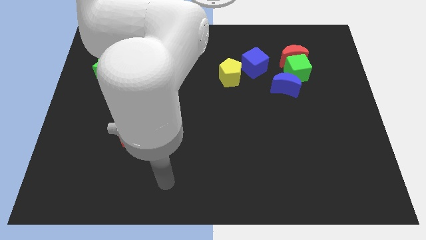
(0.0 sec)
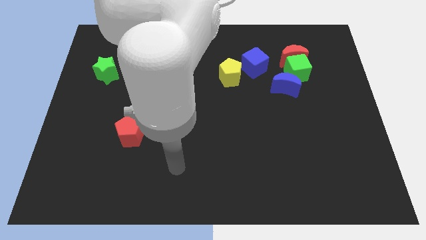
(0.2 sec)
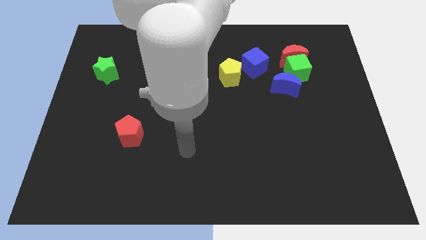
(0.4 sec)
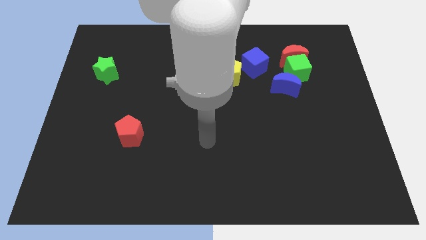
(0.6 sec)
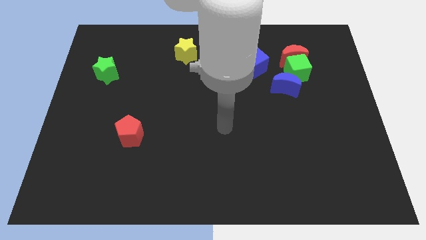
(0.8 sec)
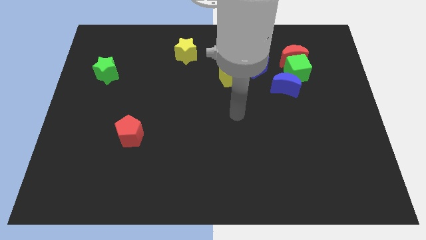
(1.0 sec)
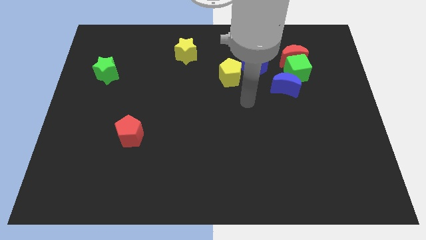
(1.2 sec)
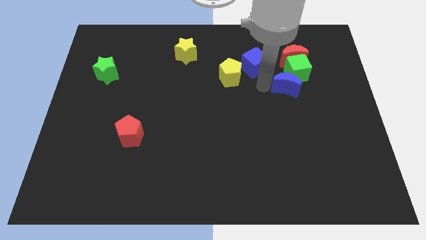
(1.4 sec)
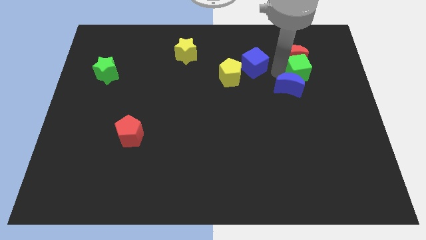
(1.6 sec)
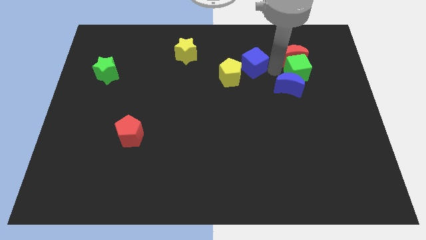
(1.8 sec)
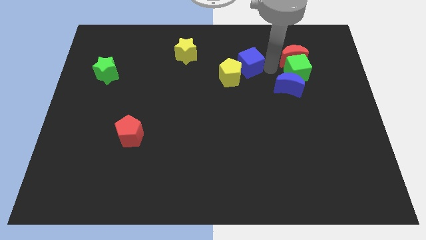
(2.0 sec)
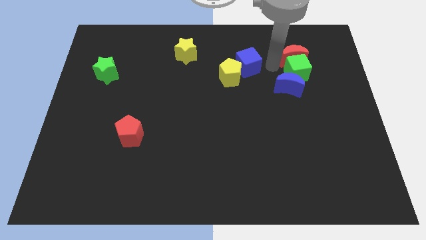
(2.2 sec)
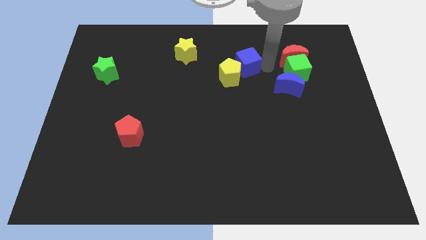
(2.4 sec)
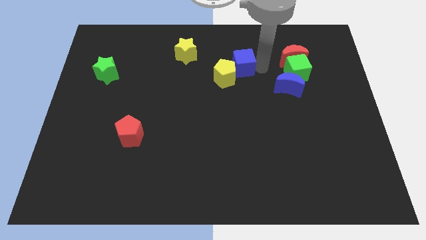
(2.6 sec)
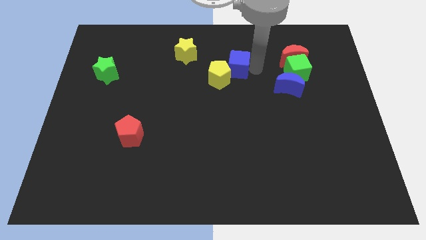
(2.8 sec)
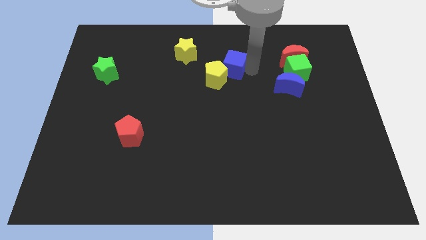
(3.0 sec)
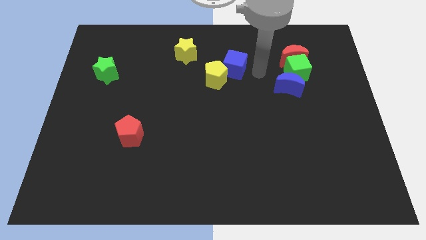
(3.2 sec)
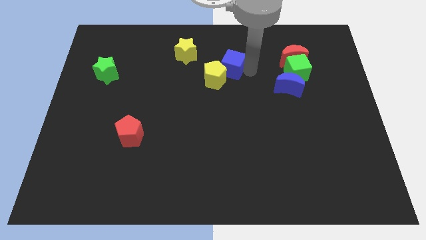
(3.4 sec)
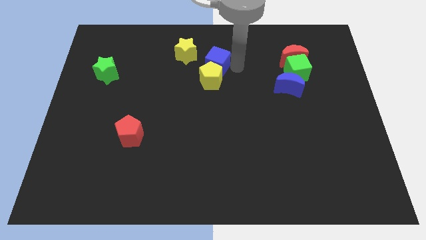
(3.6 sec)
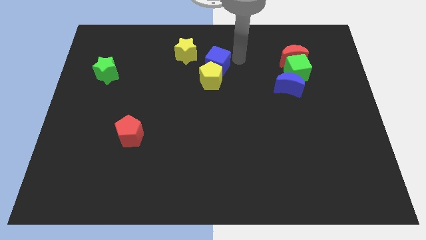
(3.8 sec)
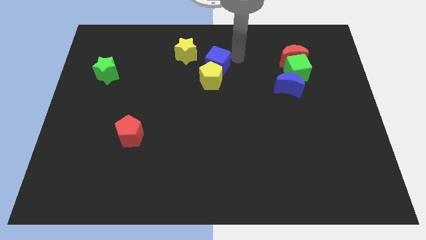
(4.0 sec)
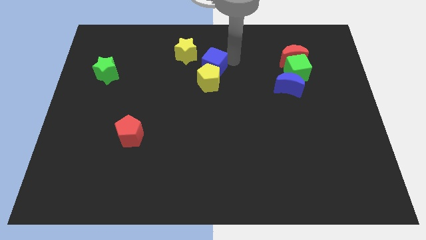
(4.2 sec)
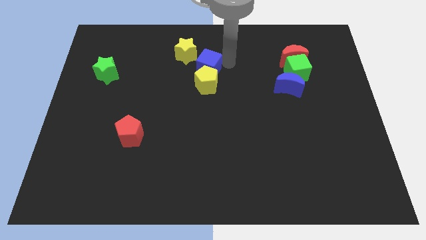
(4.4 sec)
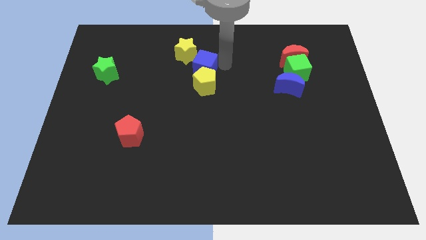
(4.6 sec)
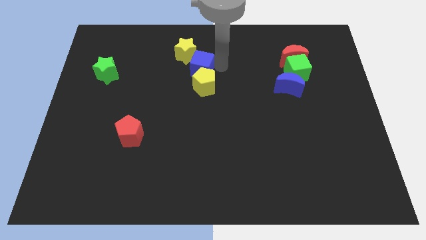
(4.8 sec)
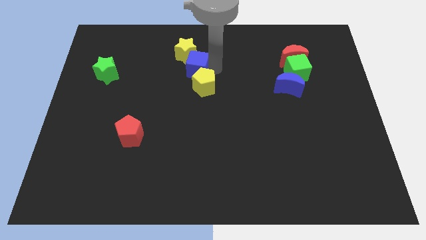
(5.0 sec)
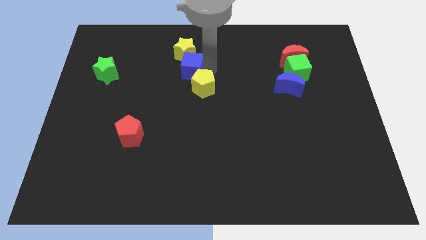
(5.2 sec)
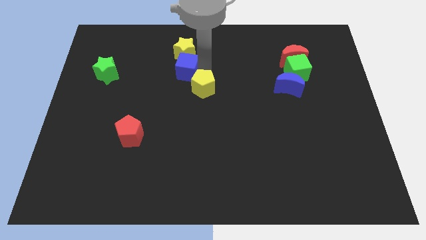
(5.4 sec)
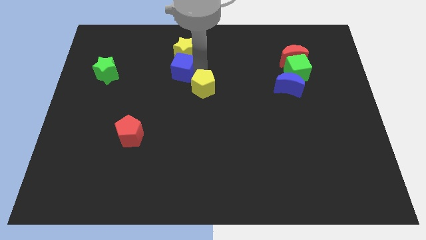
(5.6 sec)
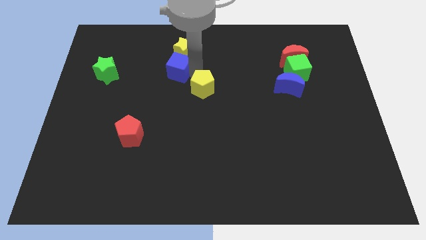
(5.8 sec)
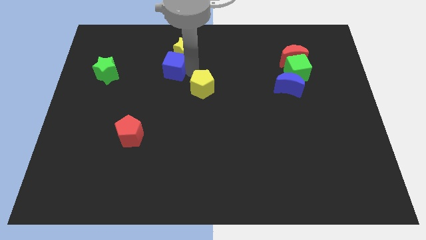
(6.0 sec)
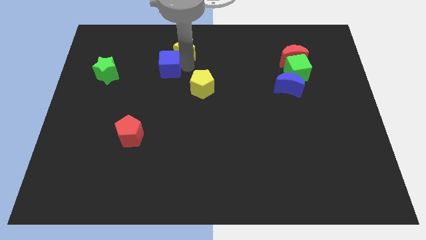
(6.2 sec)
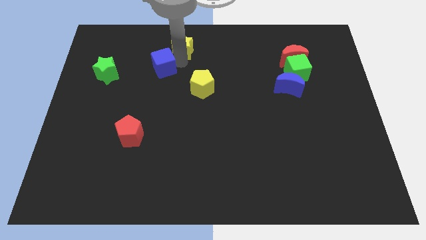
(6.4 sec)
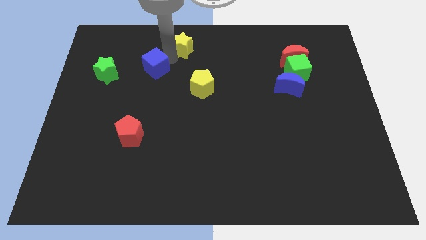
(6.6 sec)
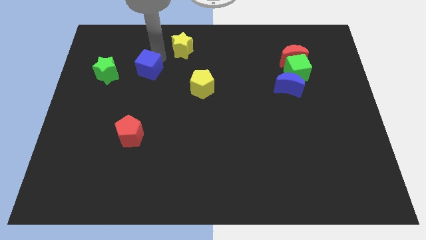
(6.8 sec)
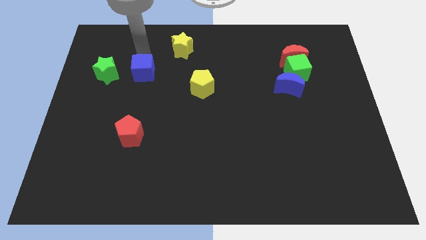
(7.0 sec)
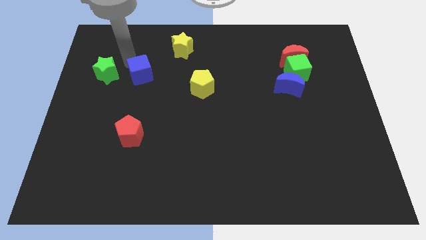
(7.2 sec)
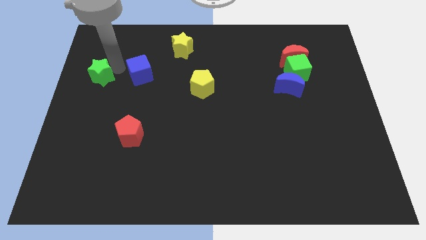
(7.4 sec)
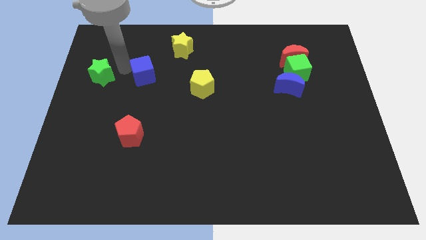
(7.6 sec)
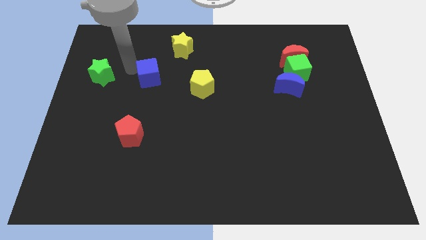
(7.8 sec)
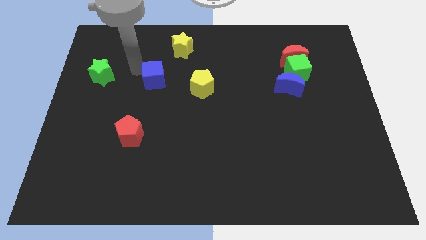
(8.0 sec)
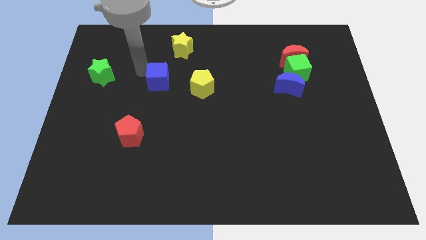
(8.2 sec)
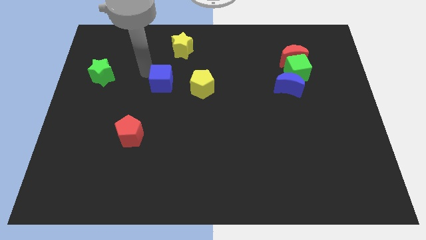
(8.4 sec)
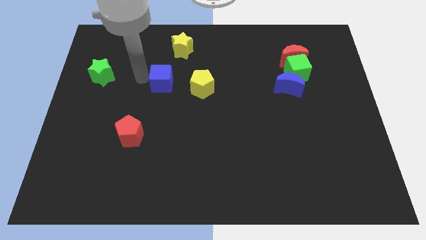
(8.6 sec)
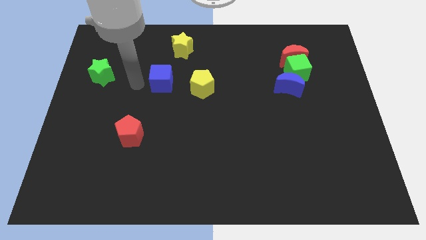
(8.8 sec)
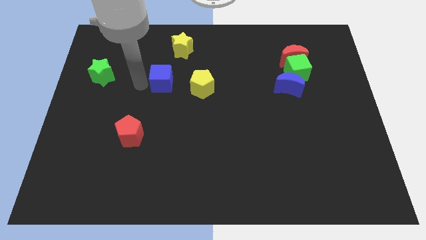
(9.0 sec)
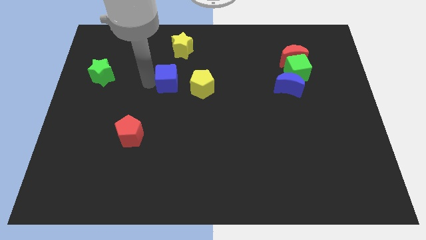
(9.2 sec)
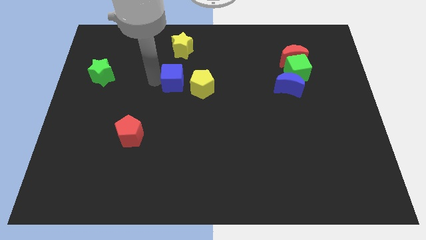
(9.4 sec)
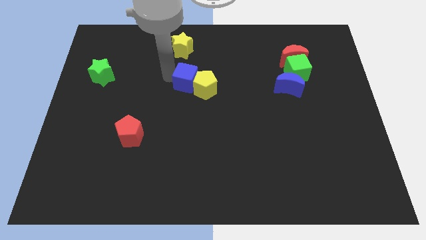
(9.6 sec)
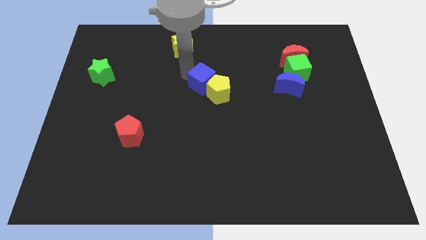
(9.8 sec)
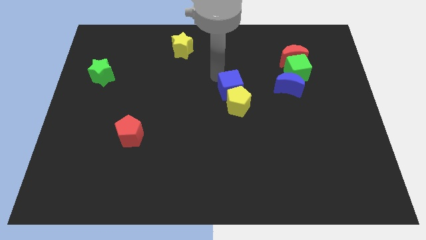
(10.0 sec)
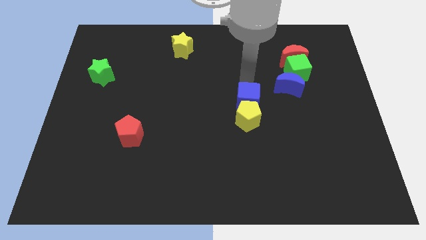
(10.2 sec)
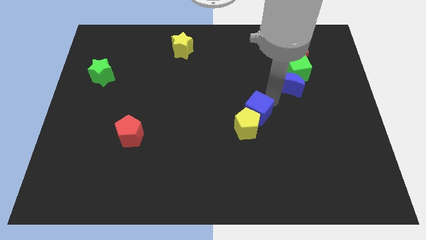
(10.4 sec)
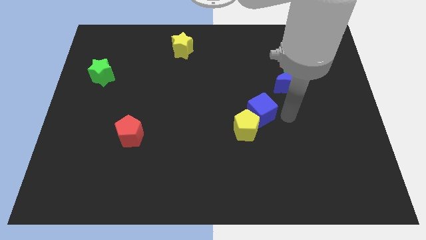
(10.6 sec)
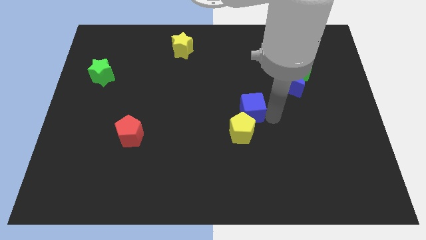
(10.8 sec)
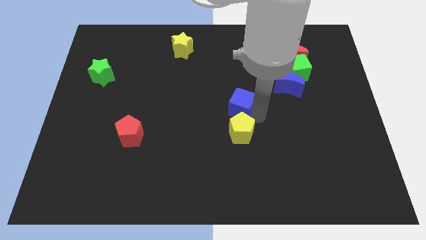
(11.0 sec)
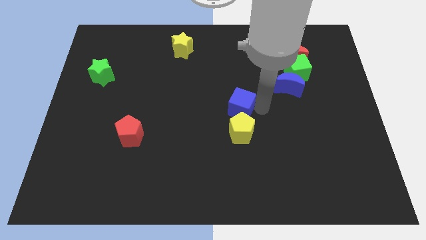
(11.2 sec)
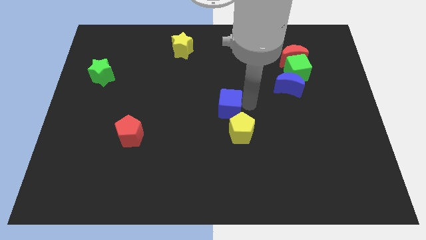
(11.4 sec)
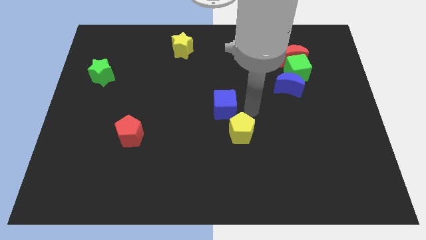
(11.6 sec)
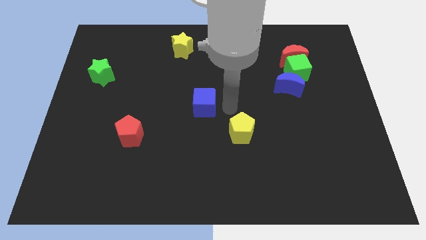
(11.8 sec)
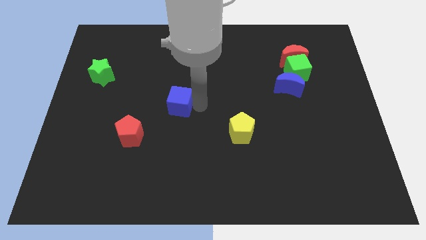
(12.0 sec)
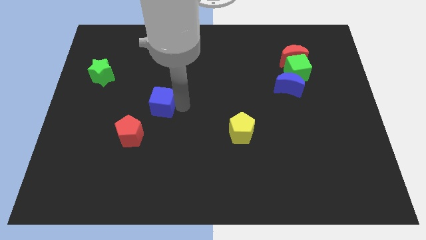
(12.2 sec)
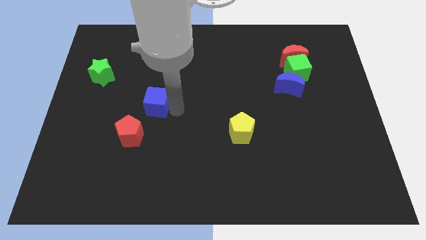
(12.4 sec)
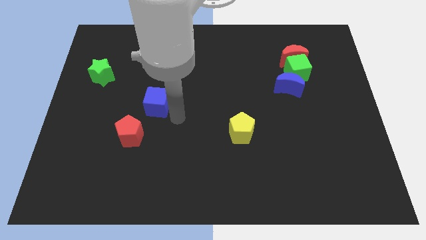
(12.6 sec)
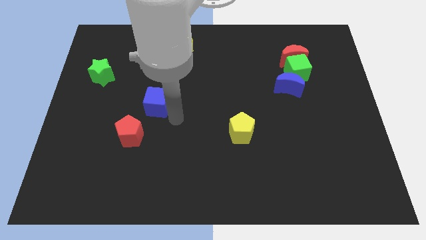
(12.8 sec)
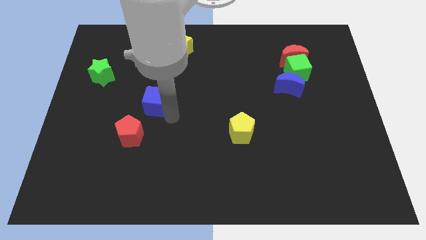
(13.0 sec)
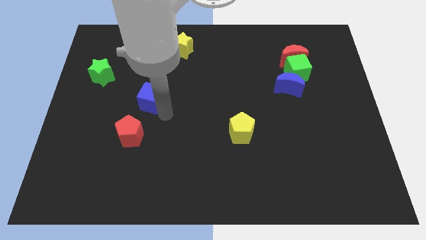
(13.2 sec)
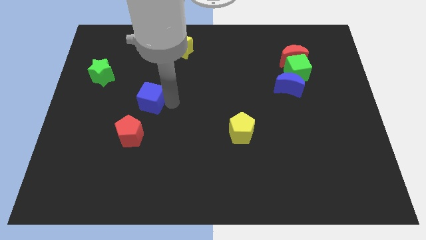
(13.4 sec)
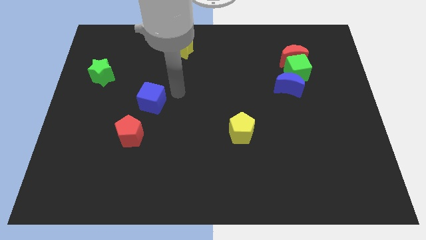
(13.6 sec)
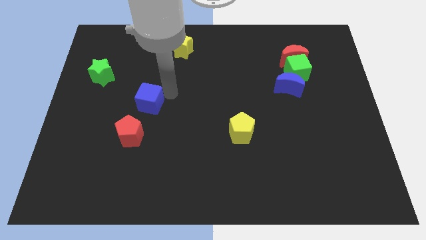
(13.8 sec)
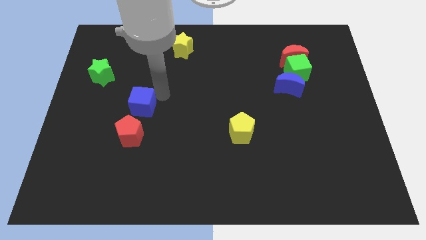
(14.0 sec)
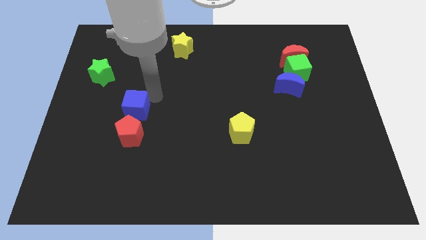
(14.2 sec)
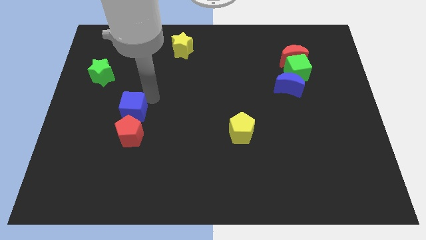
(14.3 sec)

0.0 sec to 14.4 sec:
put the blue cube to the top left side of the red pentagon
